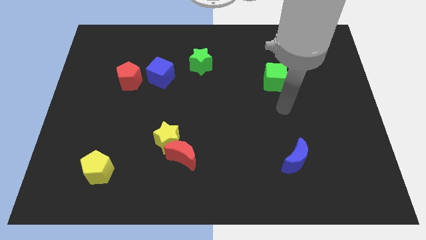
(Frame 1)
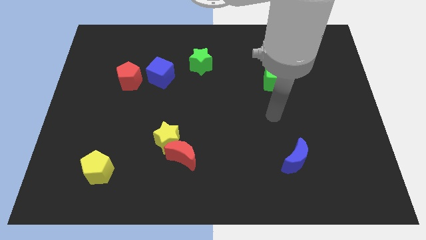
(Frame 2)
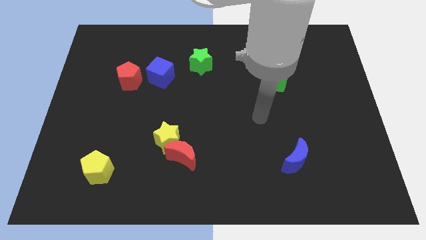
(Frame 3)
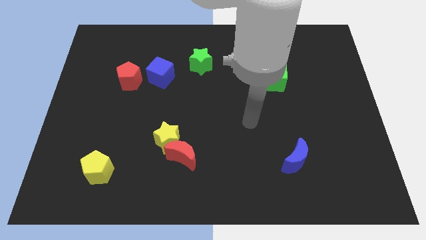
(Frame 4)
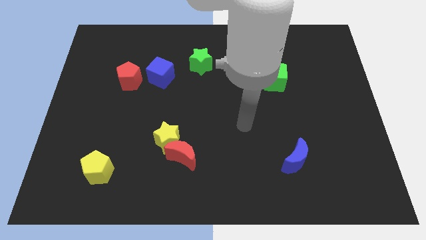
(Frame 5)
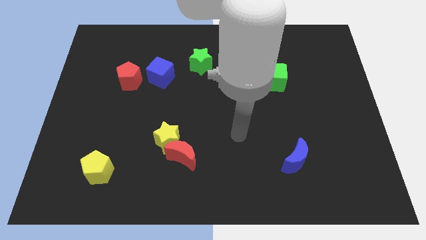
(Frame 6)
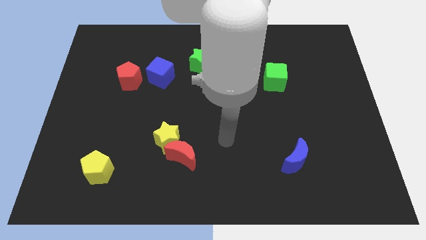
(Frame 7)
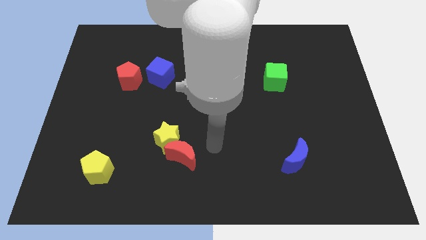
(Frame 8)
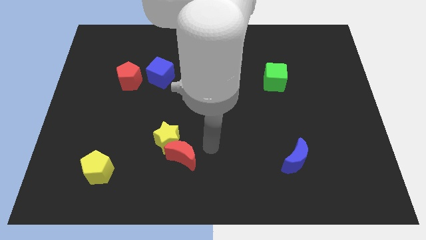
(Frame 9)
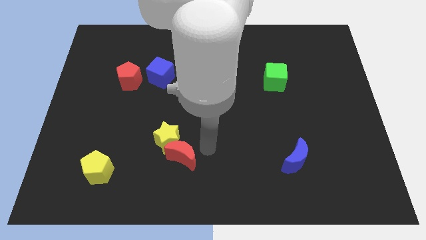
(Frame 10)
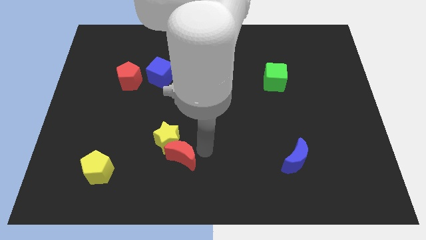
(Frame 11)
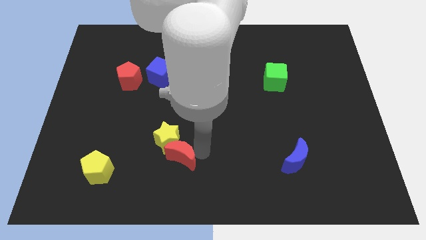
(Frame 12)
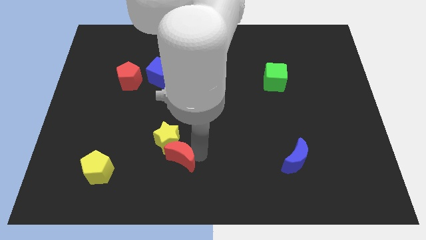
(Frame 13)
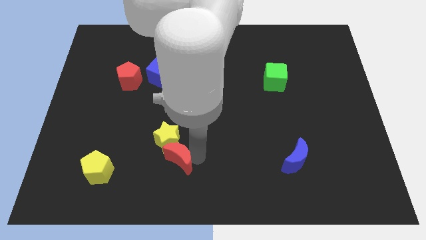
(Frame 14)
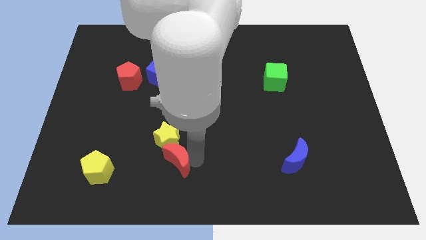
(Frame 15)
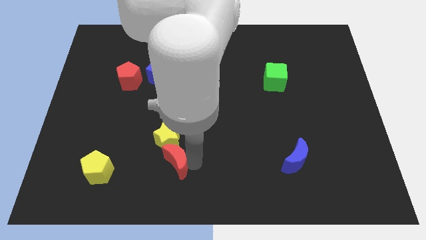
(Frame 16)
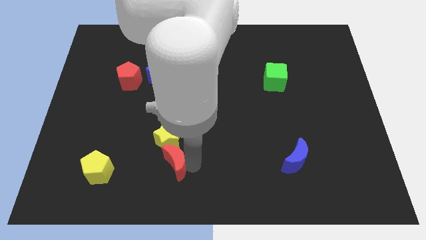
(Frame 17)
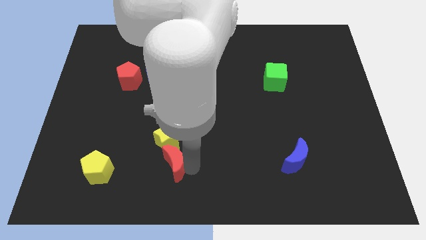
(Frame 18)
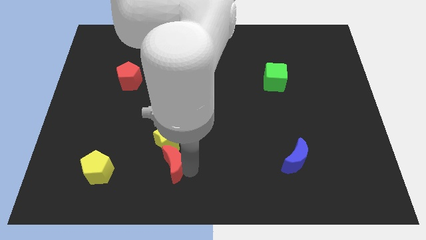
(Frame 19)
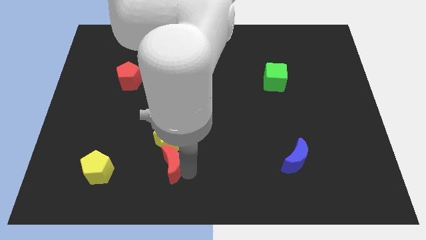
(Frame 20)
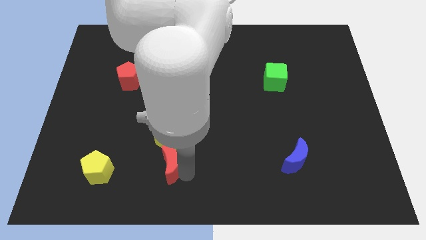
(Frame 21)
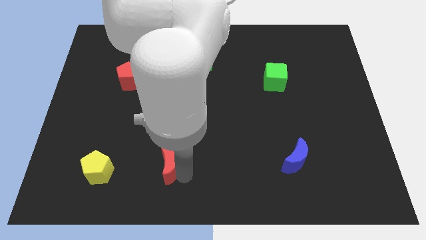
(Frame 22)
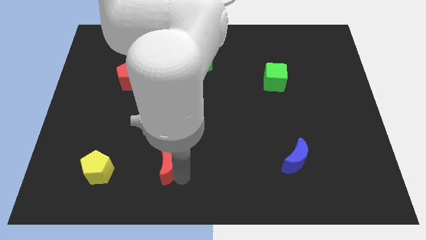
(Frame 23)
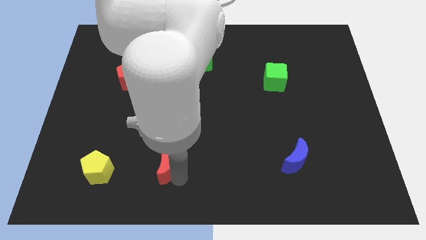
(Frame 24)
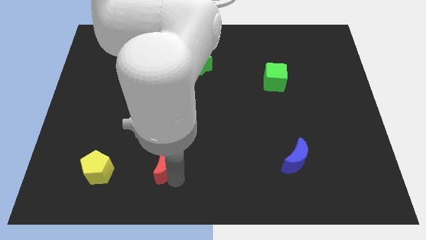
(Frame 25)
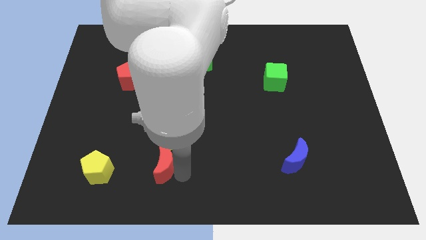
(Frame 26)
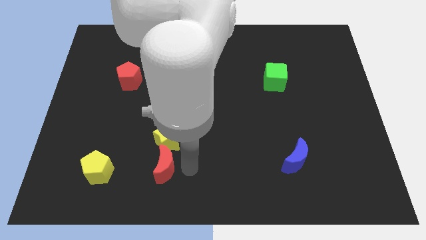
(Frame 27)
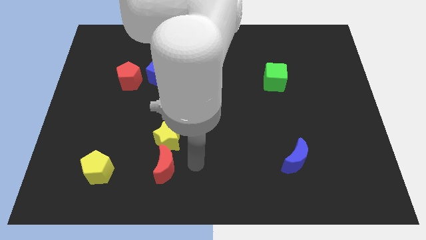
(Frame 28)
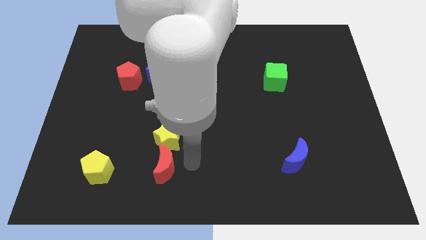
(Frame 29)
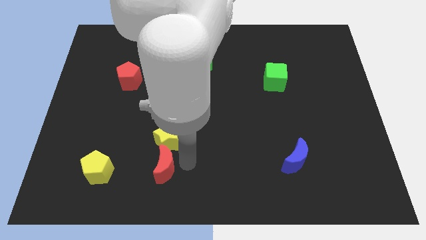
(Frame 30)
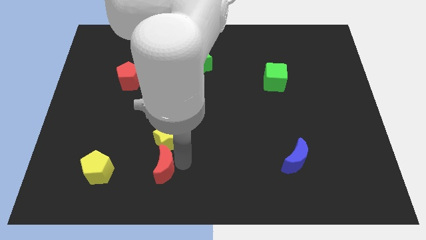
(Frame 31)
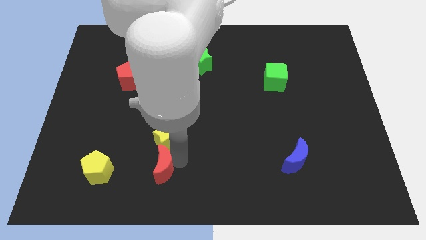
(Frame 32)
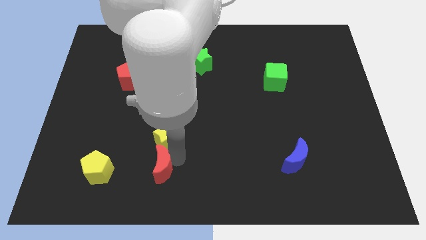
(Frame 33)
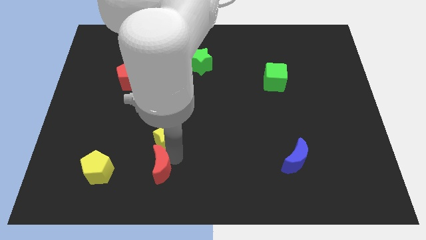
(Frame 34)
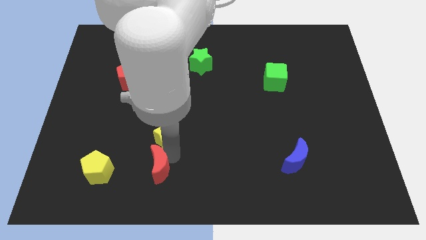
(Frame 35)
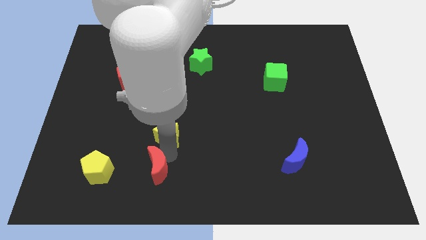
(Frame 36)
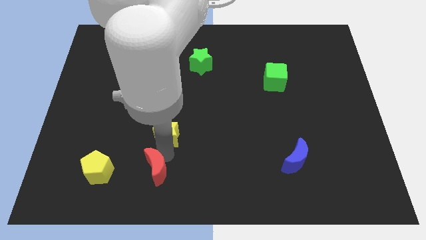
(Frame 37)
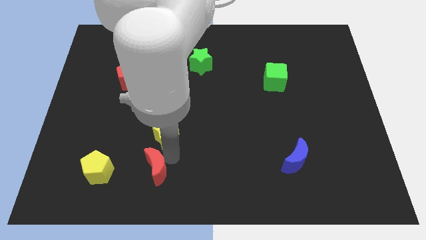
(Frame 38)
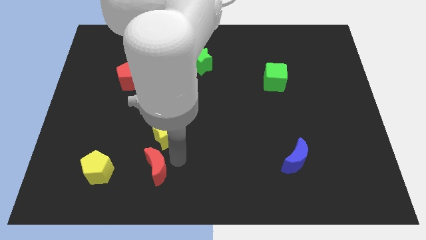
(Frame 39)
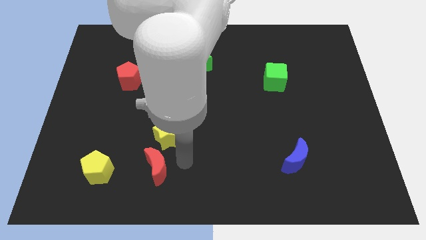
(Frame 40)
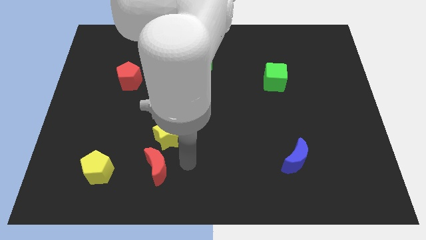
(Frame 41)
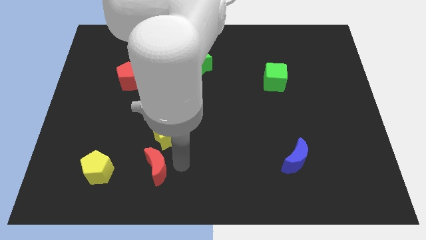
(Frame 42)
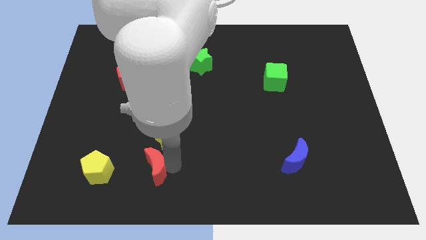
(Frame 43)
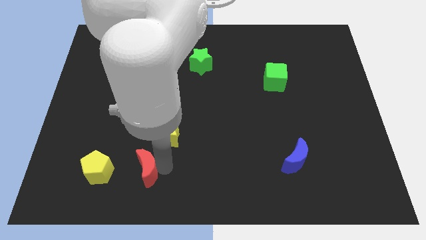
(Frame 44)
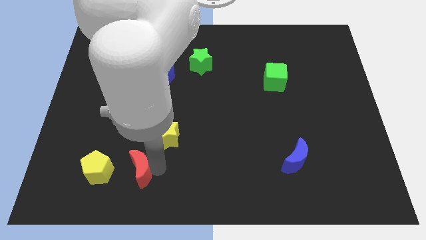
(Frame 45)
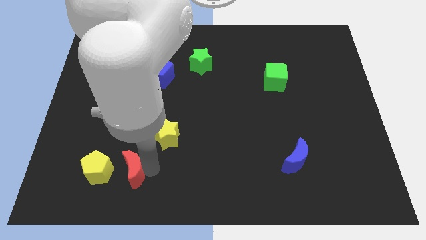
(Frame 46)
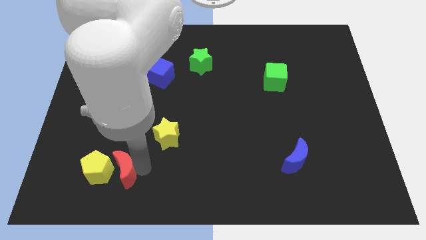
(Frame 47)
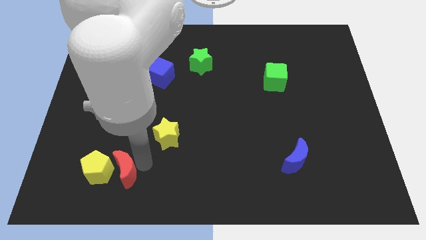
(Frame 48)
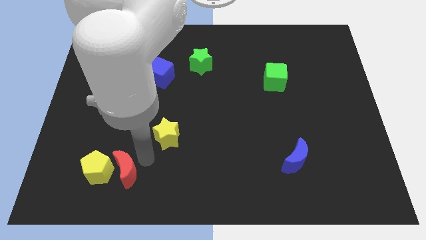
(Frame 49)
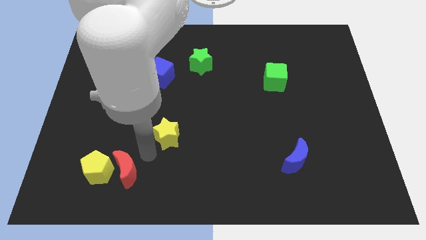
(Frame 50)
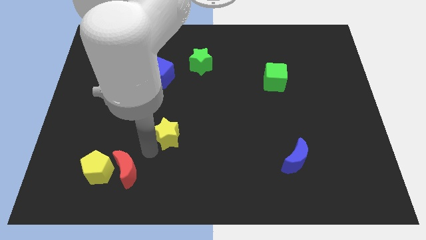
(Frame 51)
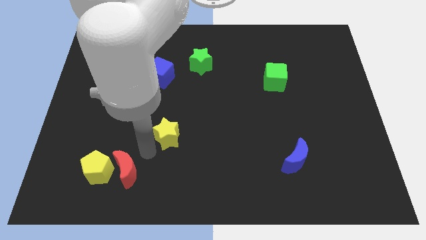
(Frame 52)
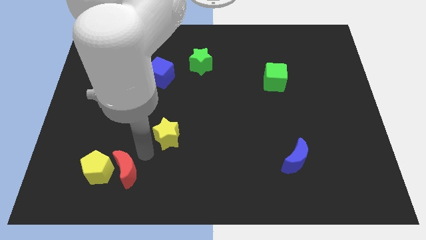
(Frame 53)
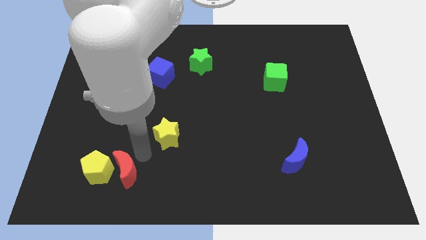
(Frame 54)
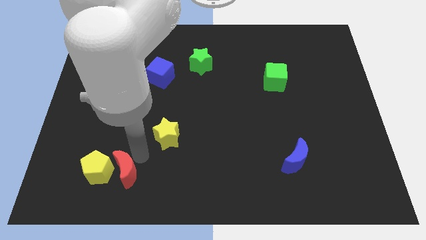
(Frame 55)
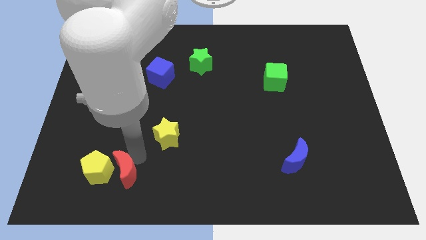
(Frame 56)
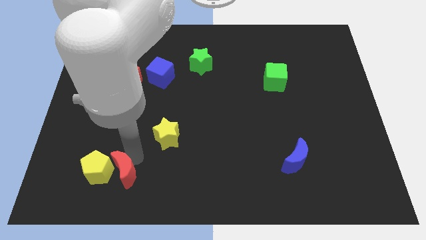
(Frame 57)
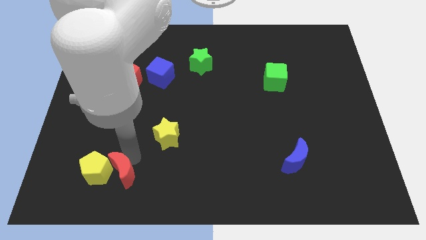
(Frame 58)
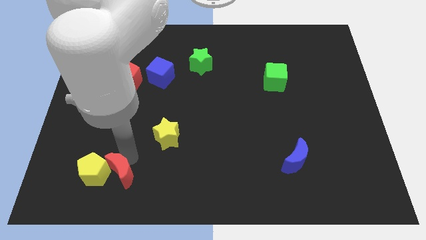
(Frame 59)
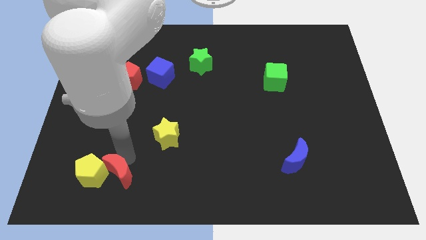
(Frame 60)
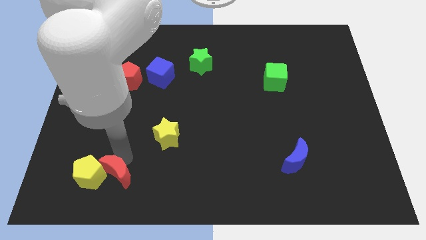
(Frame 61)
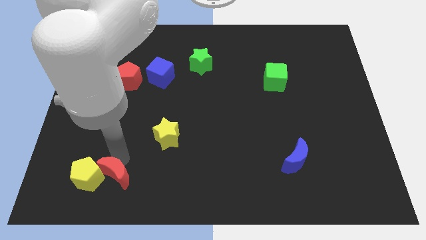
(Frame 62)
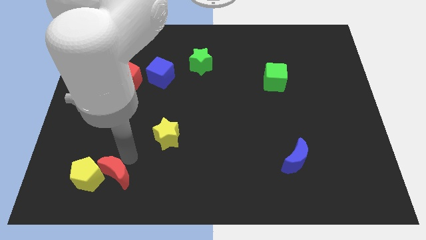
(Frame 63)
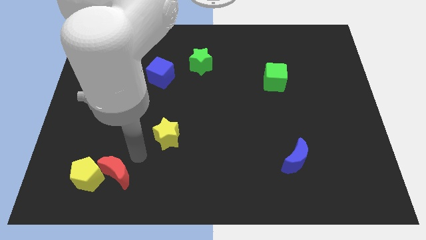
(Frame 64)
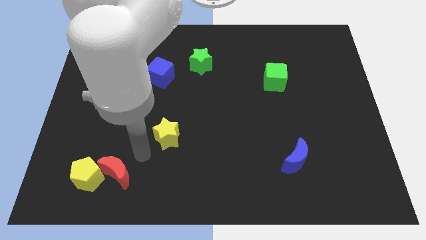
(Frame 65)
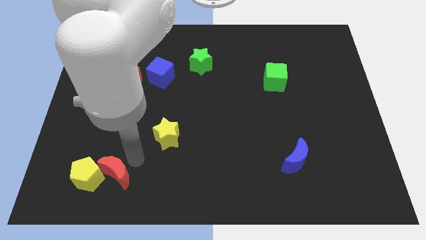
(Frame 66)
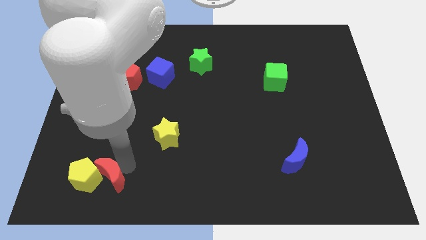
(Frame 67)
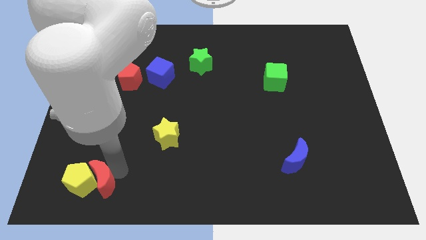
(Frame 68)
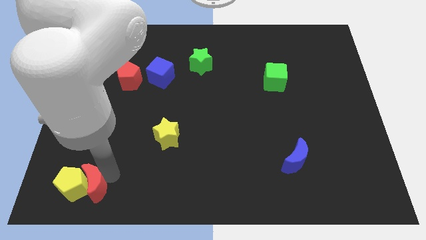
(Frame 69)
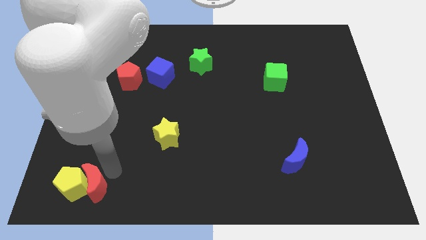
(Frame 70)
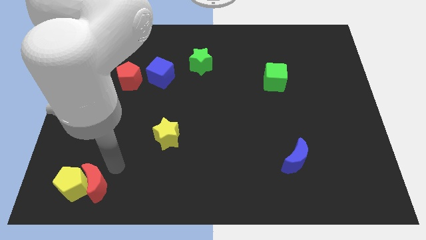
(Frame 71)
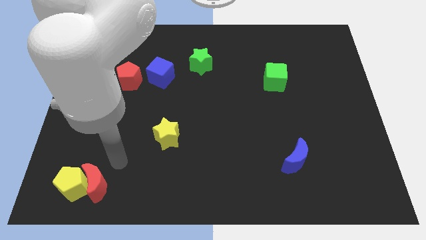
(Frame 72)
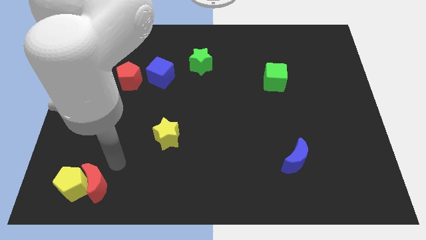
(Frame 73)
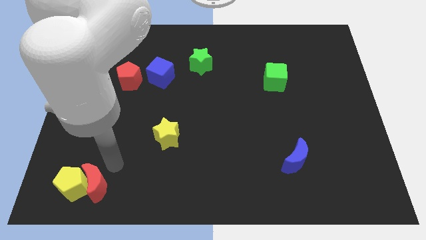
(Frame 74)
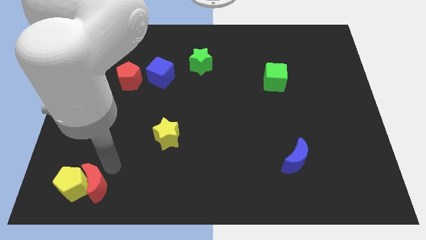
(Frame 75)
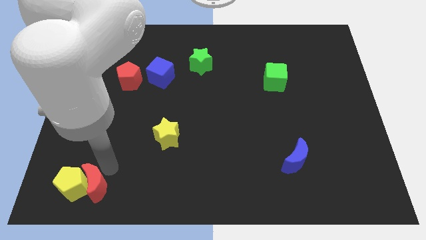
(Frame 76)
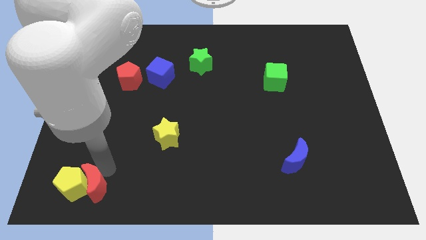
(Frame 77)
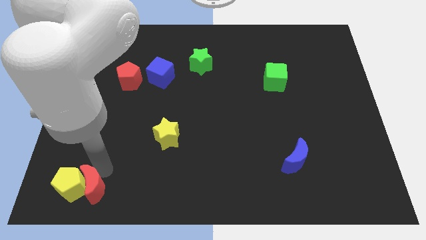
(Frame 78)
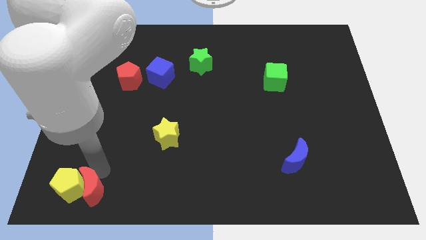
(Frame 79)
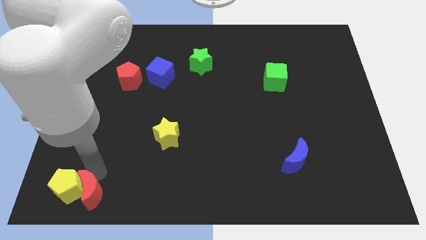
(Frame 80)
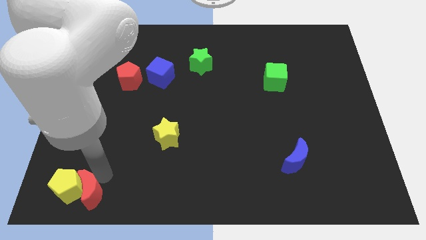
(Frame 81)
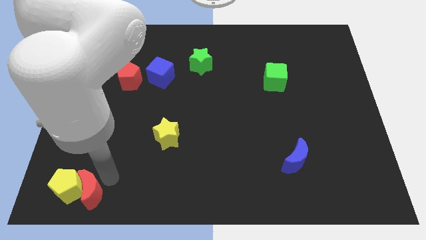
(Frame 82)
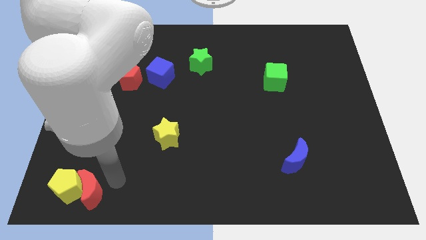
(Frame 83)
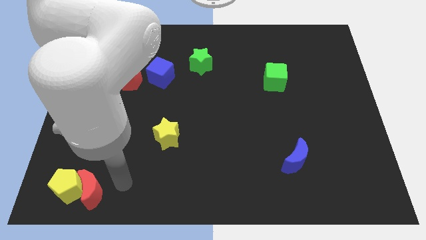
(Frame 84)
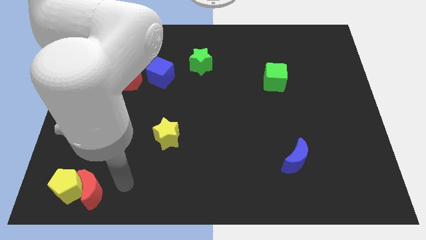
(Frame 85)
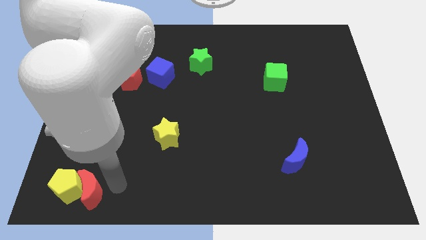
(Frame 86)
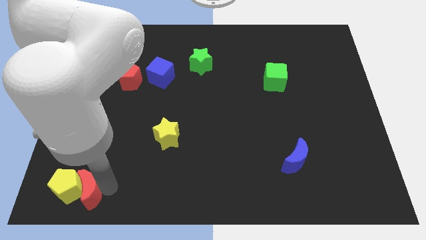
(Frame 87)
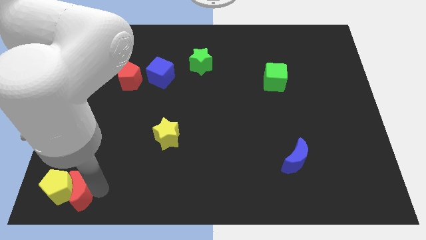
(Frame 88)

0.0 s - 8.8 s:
slide the red moon to the bottom left
